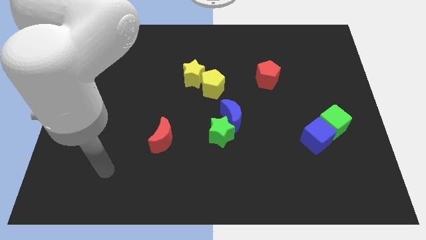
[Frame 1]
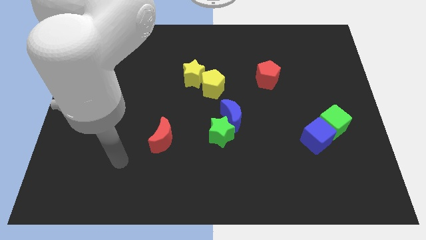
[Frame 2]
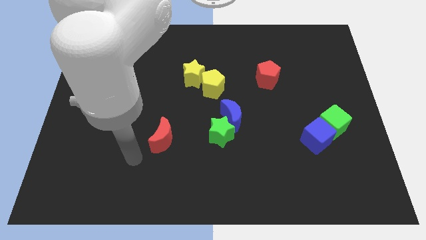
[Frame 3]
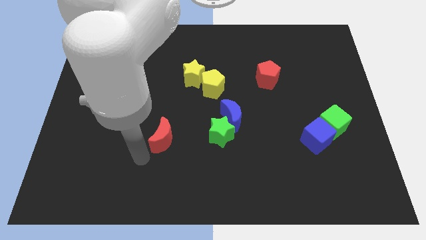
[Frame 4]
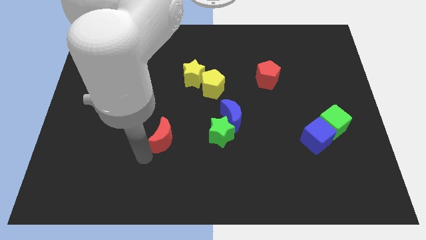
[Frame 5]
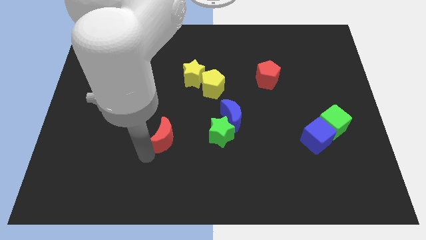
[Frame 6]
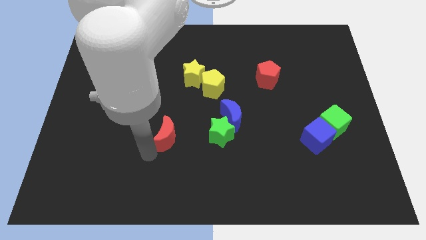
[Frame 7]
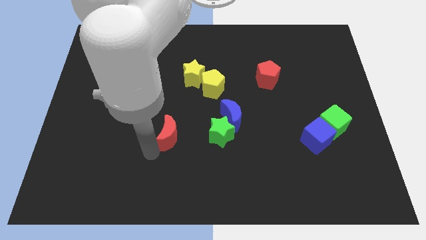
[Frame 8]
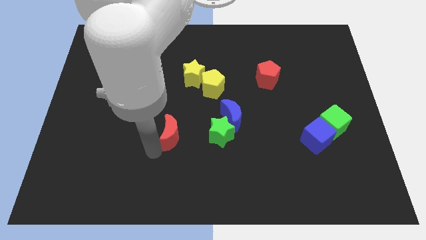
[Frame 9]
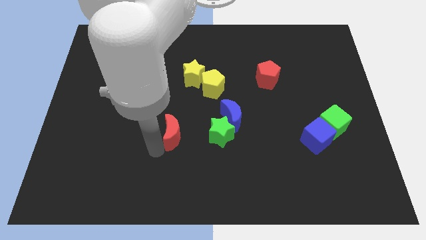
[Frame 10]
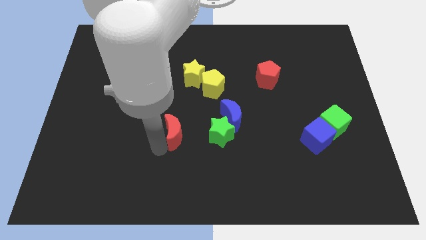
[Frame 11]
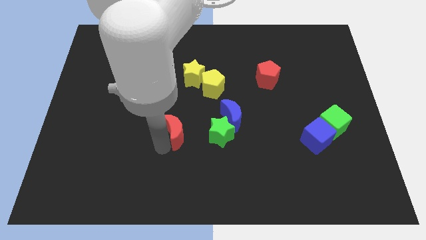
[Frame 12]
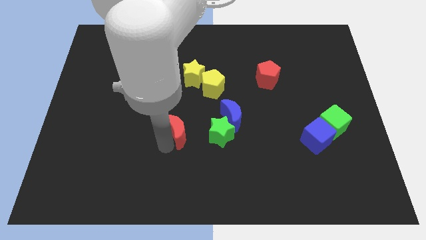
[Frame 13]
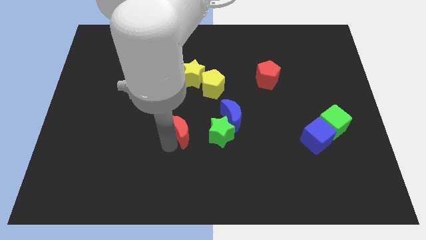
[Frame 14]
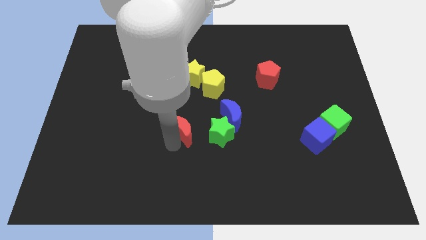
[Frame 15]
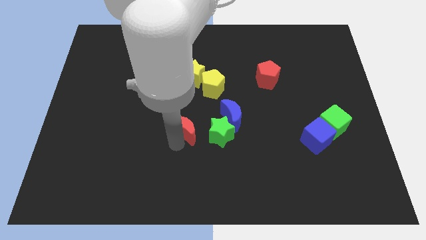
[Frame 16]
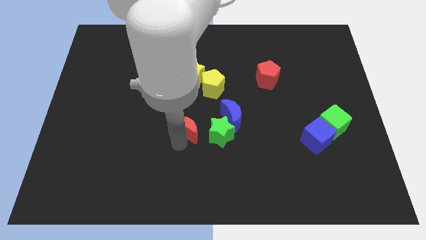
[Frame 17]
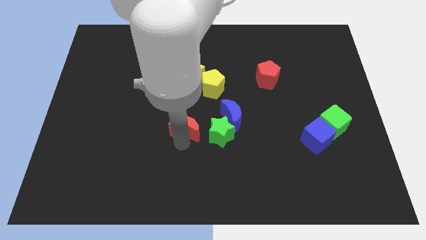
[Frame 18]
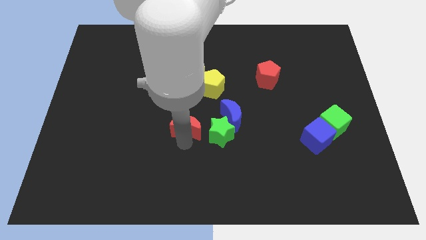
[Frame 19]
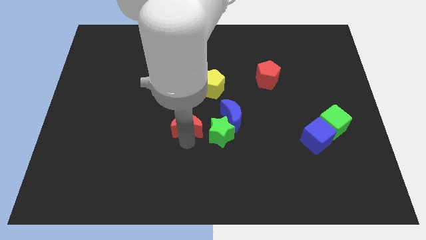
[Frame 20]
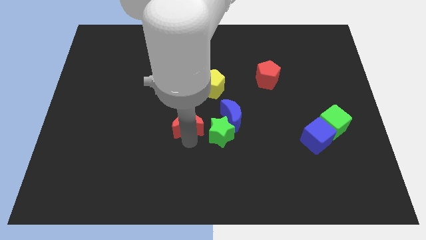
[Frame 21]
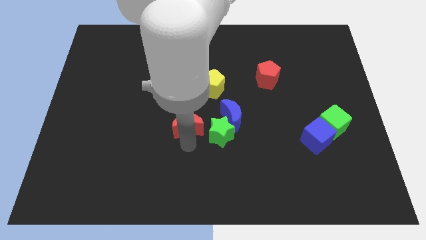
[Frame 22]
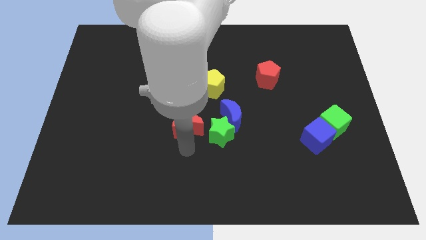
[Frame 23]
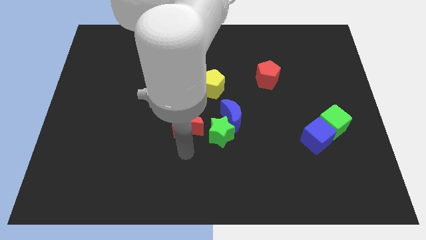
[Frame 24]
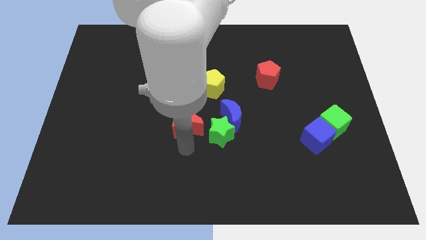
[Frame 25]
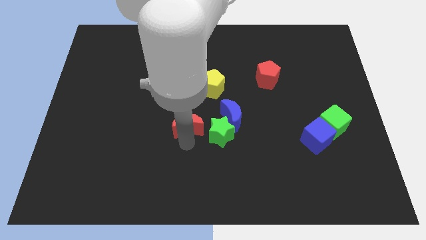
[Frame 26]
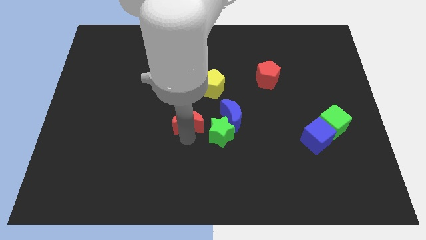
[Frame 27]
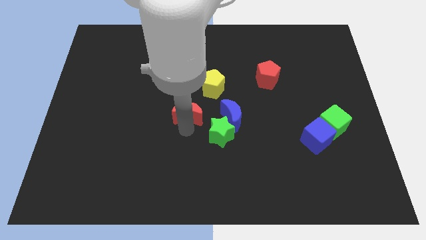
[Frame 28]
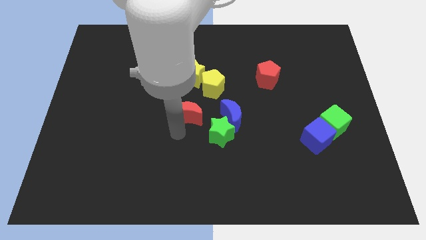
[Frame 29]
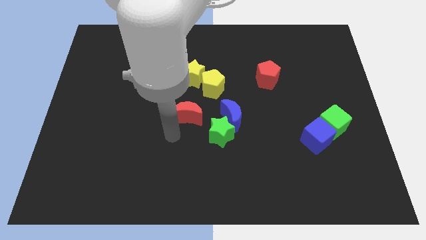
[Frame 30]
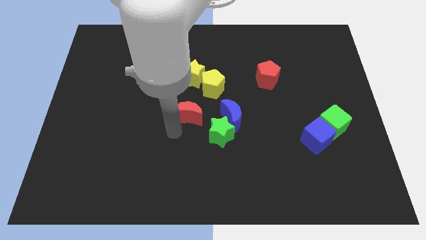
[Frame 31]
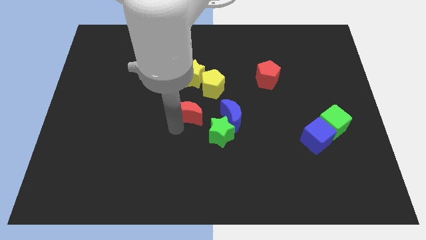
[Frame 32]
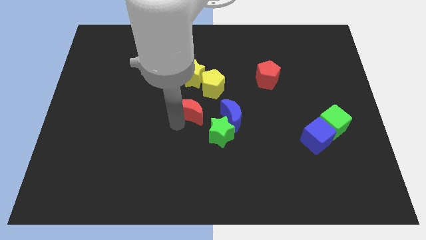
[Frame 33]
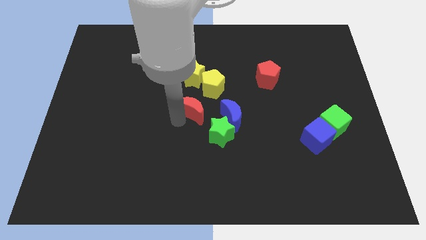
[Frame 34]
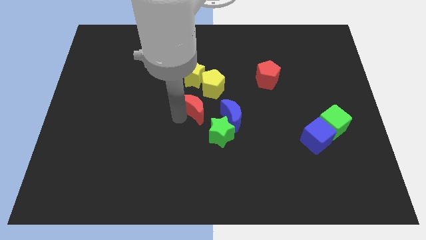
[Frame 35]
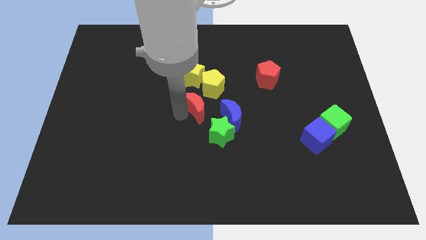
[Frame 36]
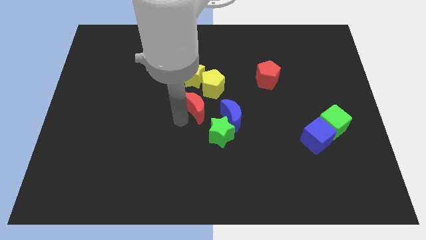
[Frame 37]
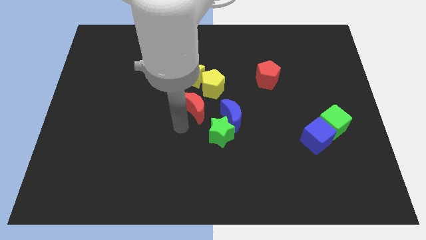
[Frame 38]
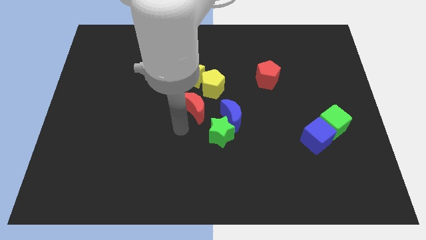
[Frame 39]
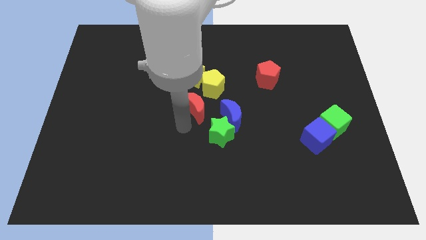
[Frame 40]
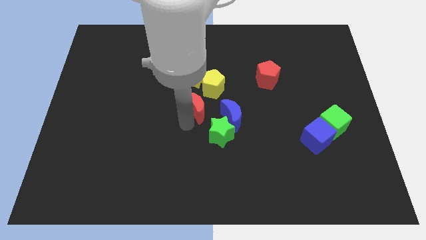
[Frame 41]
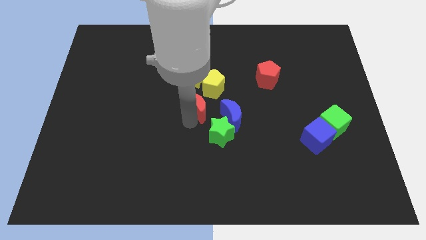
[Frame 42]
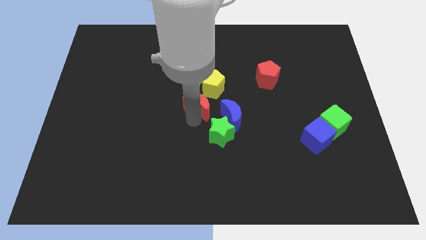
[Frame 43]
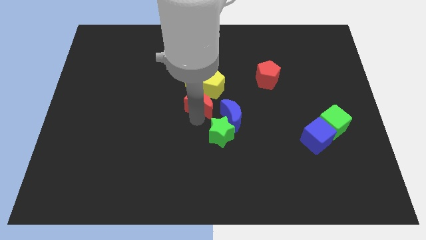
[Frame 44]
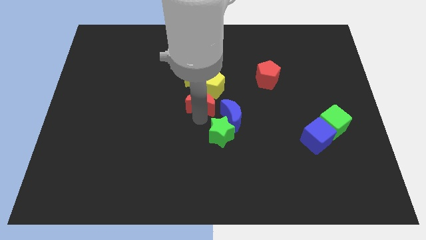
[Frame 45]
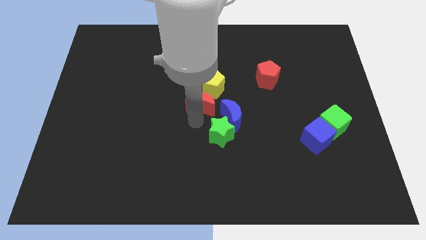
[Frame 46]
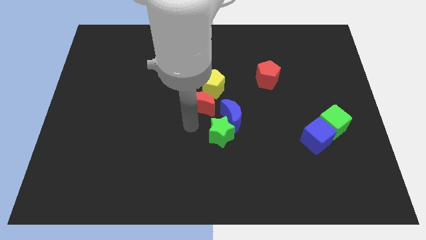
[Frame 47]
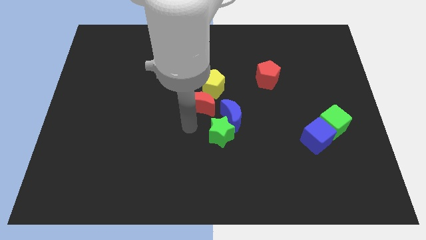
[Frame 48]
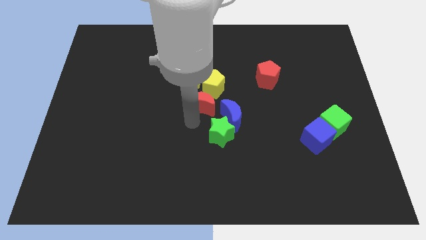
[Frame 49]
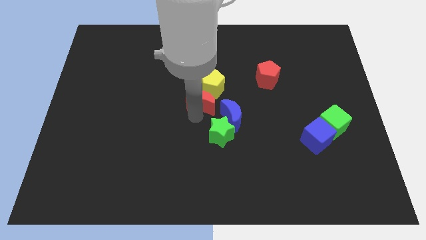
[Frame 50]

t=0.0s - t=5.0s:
put the red moon to the yellow pentagon

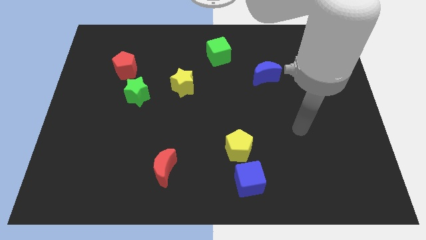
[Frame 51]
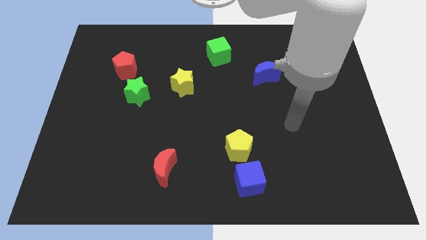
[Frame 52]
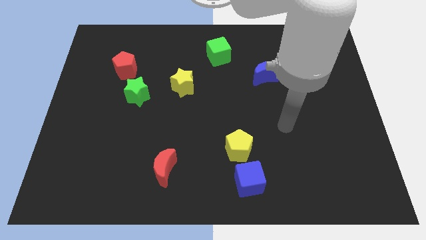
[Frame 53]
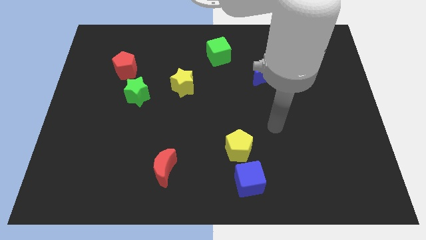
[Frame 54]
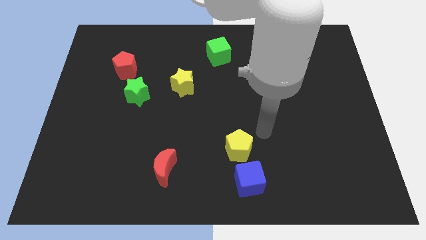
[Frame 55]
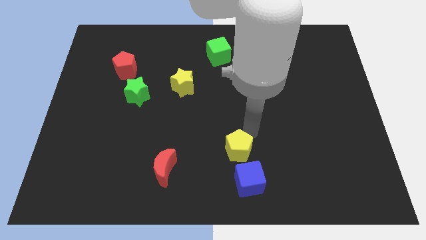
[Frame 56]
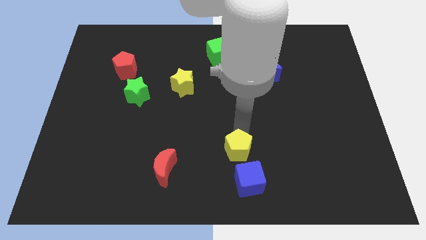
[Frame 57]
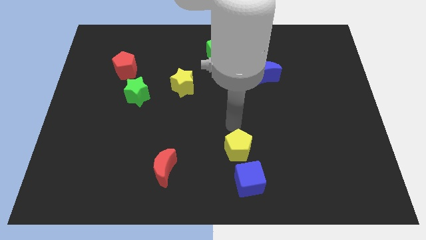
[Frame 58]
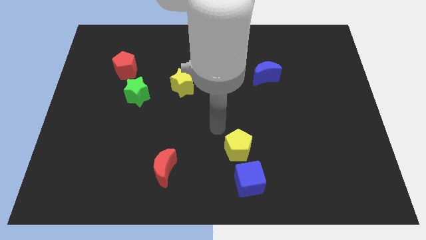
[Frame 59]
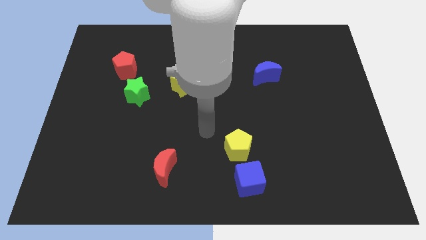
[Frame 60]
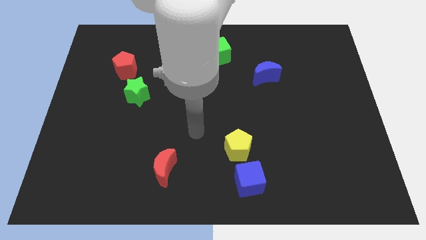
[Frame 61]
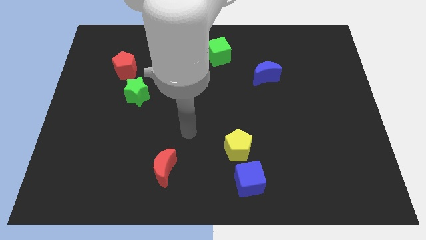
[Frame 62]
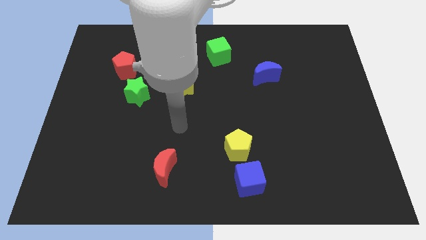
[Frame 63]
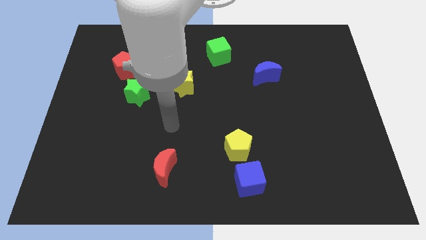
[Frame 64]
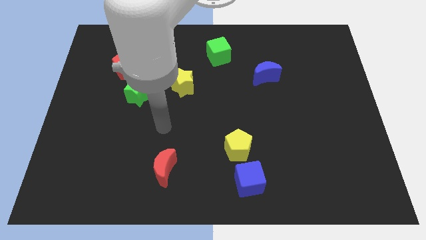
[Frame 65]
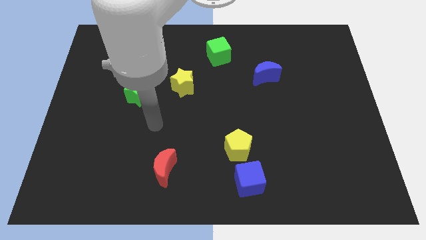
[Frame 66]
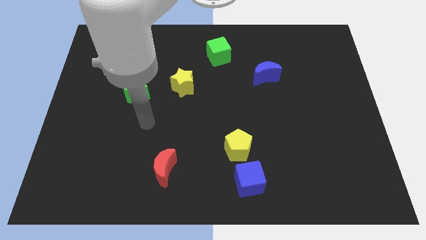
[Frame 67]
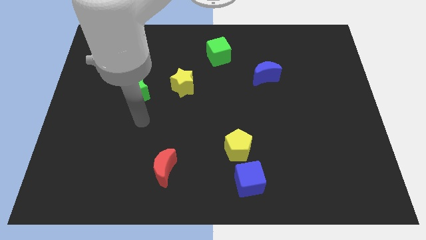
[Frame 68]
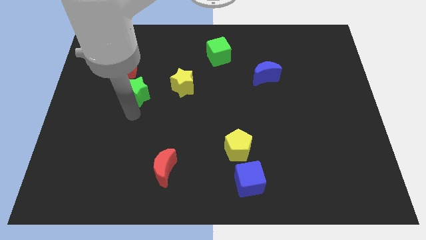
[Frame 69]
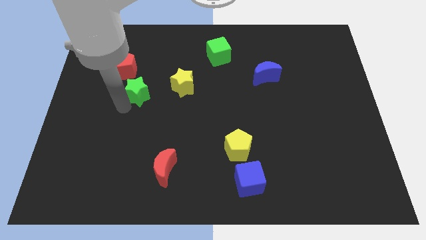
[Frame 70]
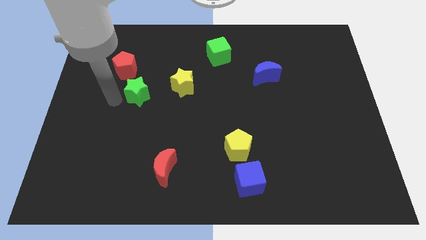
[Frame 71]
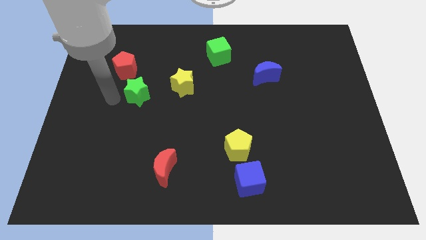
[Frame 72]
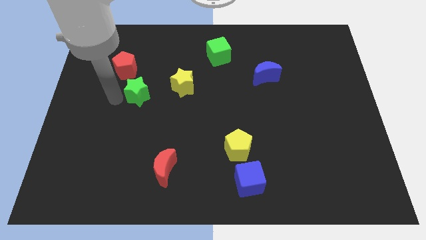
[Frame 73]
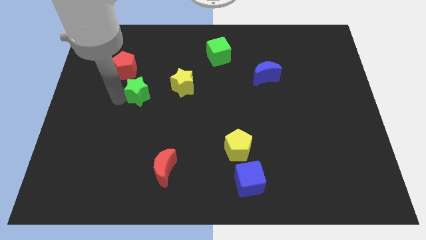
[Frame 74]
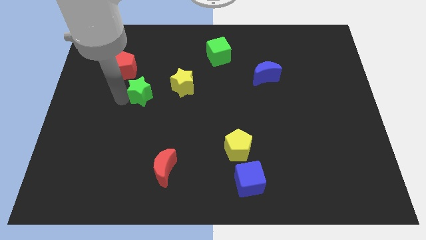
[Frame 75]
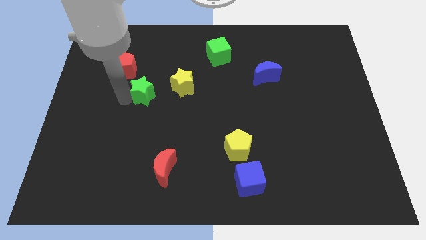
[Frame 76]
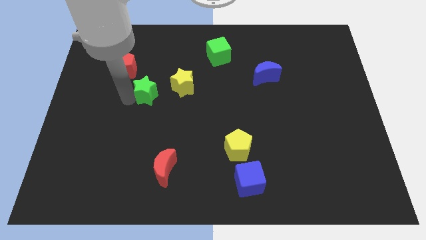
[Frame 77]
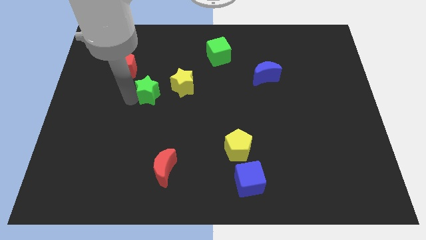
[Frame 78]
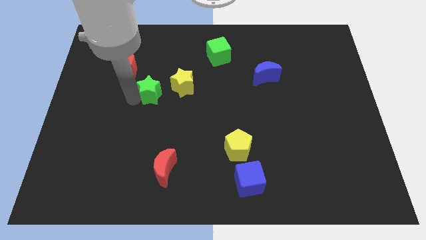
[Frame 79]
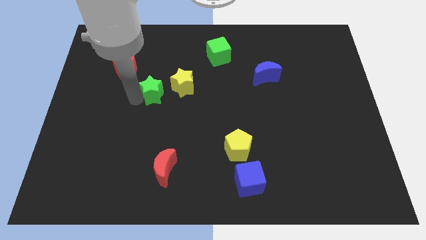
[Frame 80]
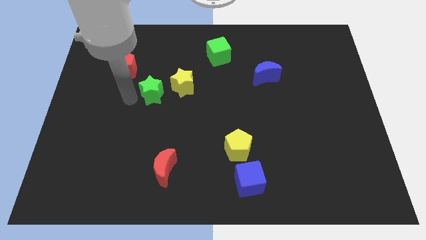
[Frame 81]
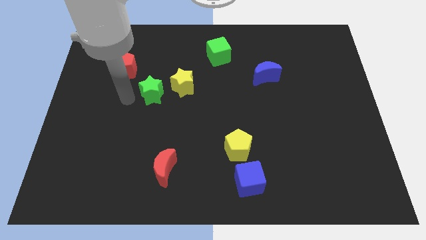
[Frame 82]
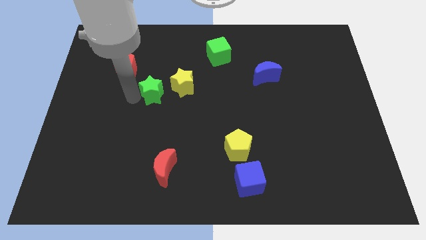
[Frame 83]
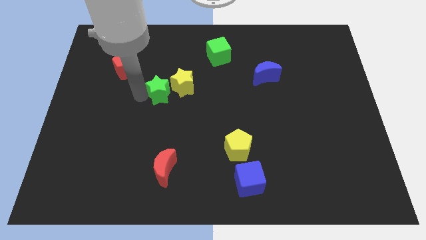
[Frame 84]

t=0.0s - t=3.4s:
put the green star close to the yellow star

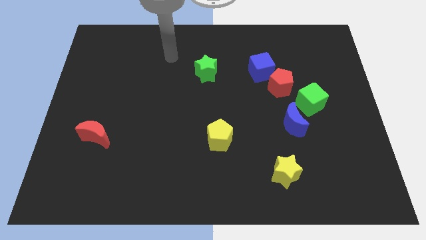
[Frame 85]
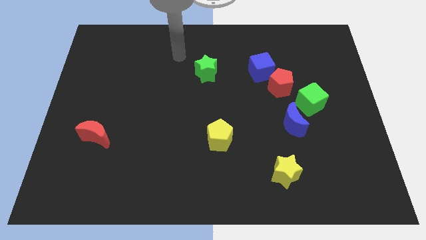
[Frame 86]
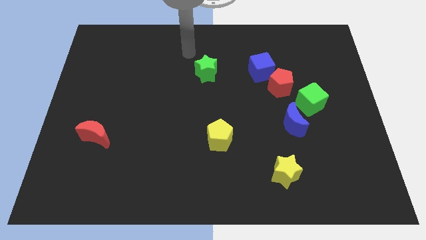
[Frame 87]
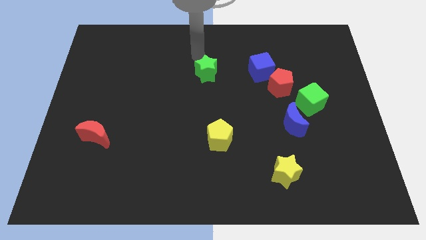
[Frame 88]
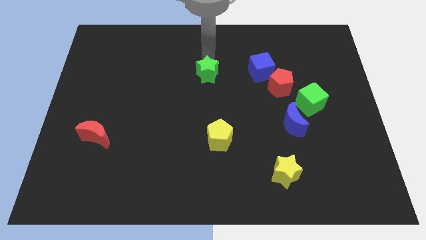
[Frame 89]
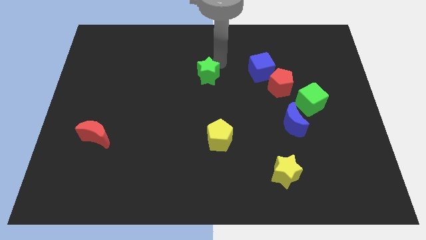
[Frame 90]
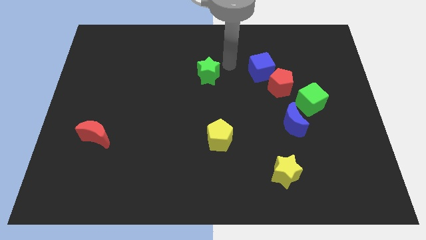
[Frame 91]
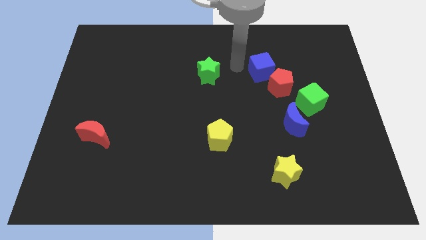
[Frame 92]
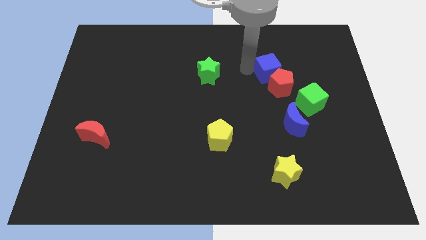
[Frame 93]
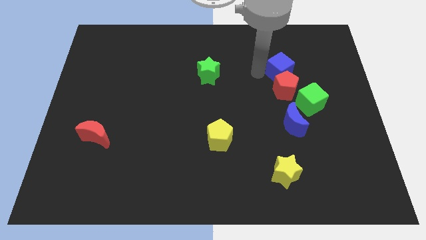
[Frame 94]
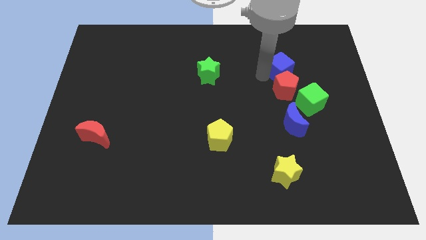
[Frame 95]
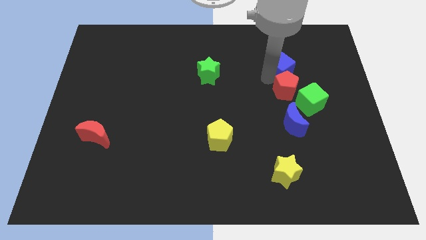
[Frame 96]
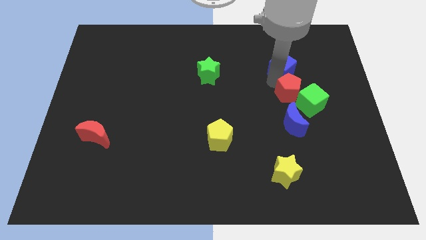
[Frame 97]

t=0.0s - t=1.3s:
push the red pentagon towards the green cube
